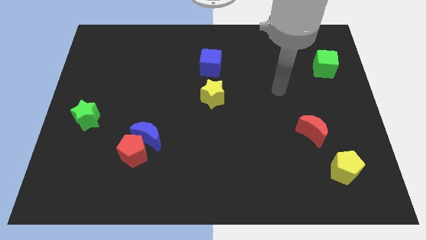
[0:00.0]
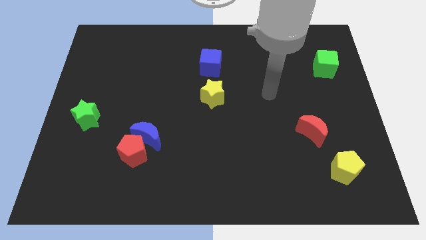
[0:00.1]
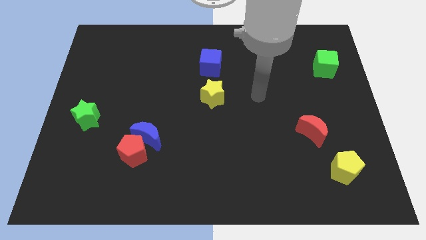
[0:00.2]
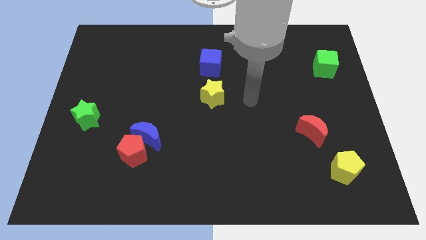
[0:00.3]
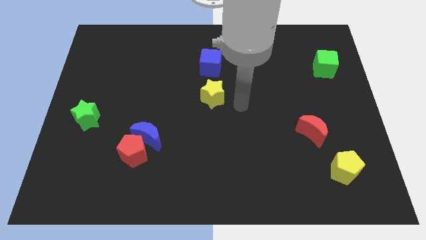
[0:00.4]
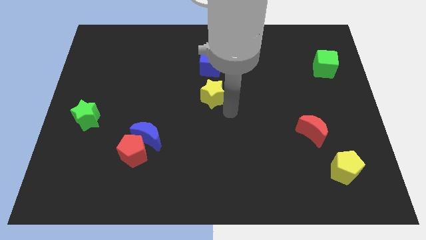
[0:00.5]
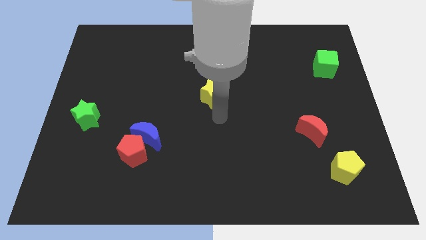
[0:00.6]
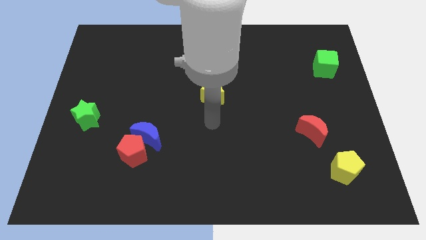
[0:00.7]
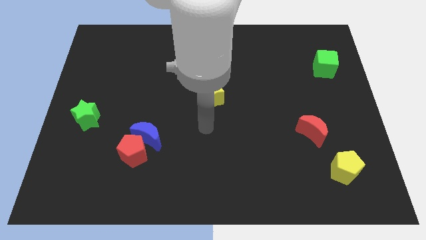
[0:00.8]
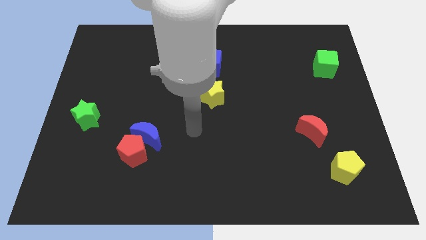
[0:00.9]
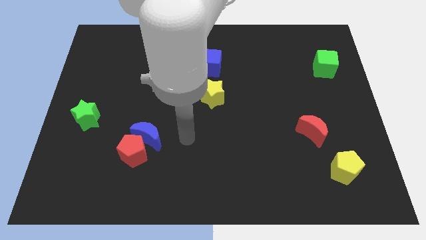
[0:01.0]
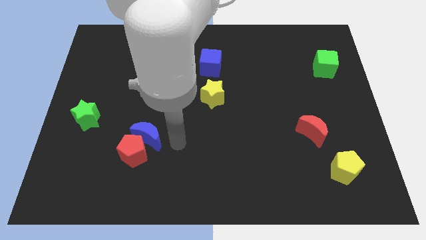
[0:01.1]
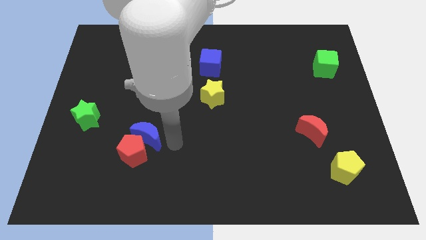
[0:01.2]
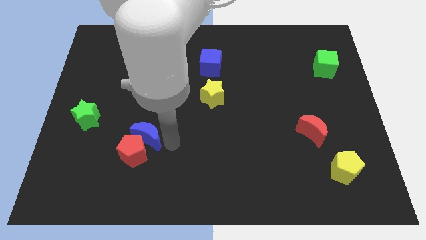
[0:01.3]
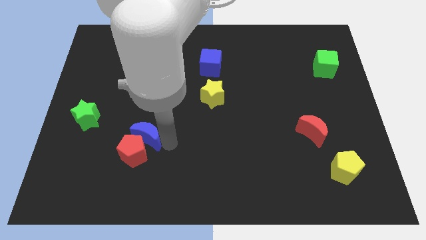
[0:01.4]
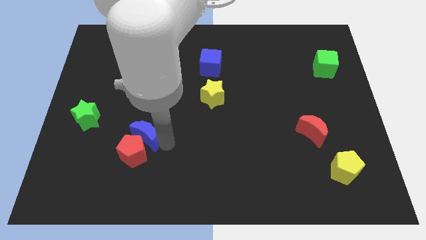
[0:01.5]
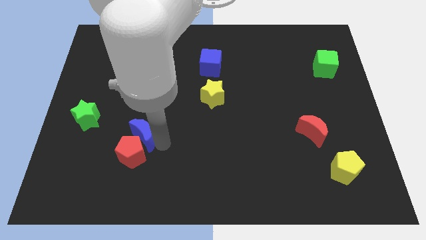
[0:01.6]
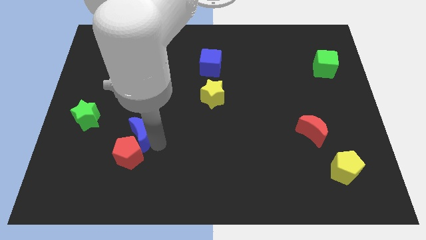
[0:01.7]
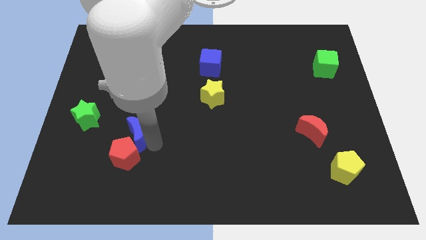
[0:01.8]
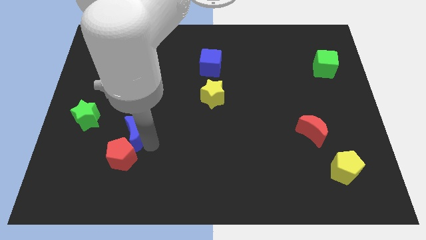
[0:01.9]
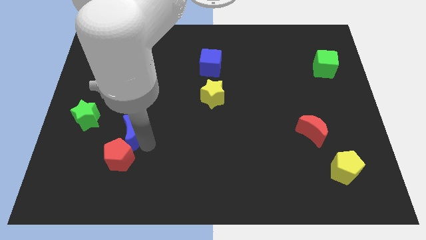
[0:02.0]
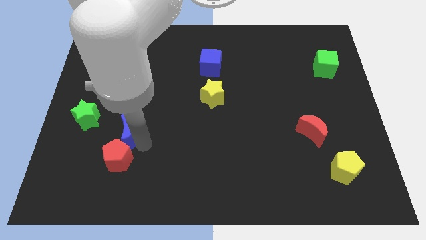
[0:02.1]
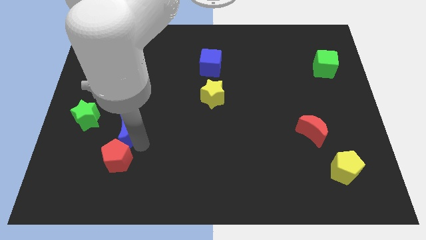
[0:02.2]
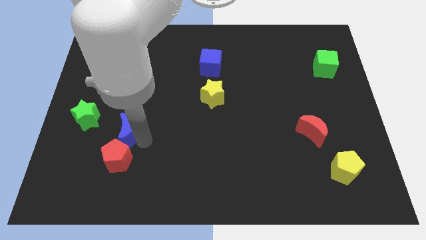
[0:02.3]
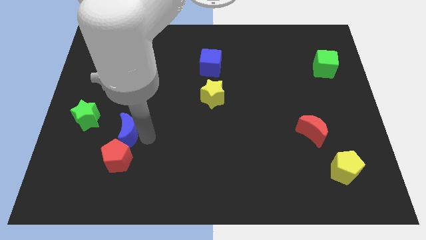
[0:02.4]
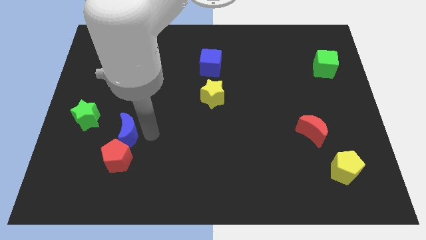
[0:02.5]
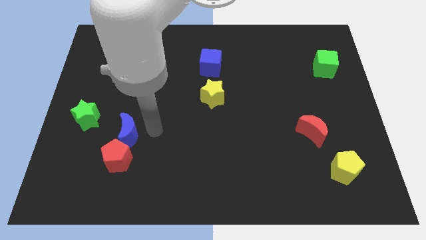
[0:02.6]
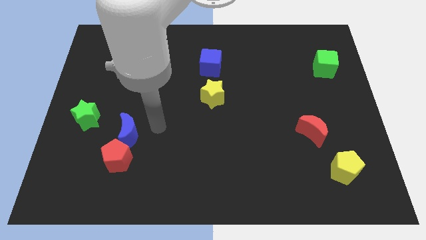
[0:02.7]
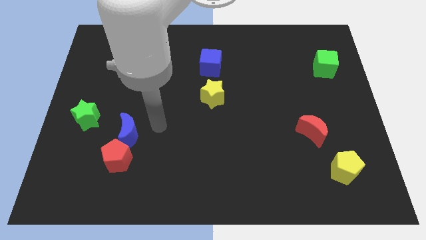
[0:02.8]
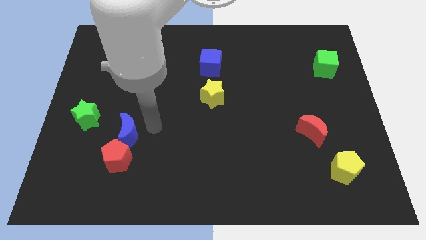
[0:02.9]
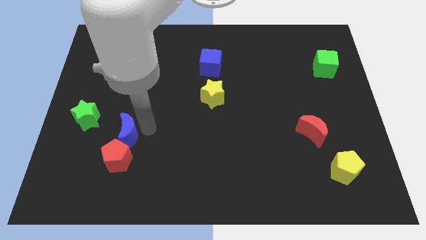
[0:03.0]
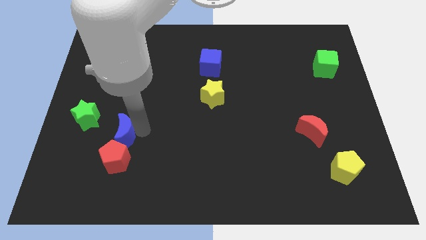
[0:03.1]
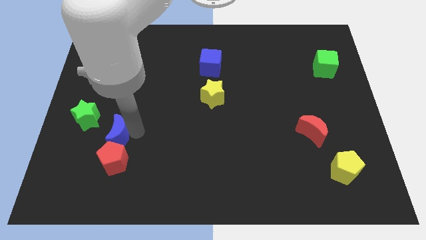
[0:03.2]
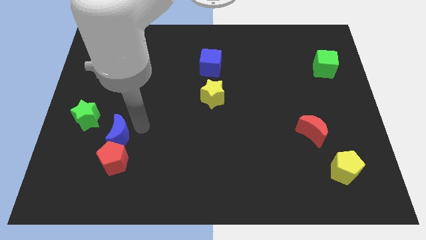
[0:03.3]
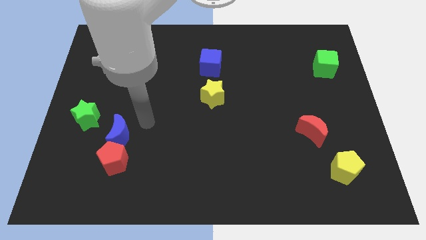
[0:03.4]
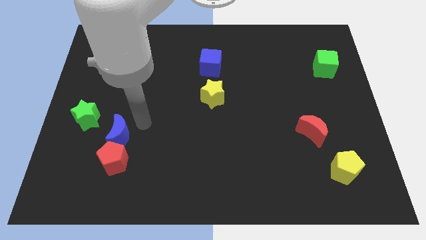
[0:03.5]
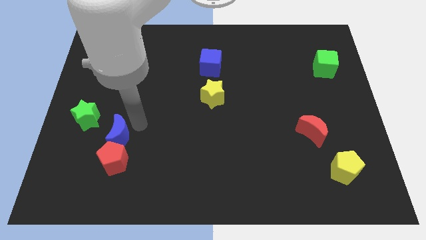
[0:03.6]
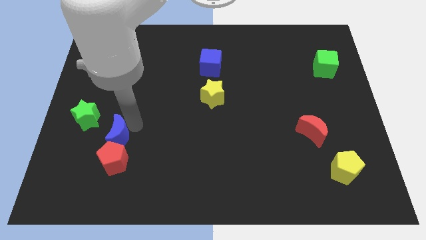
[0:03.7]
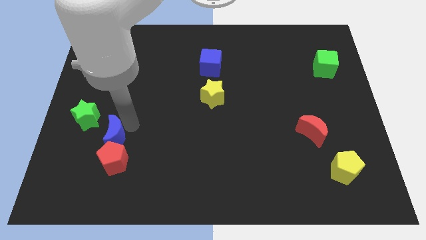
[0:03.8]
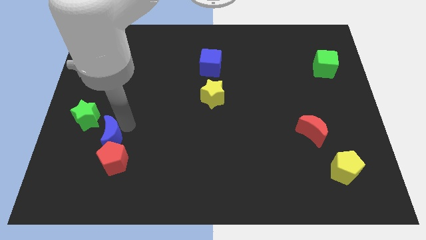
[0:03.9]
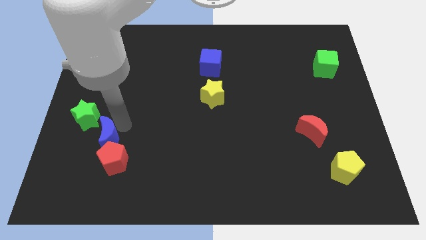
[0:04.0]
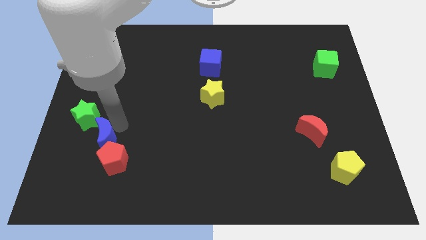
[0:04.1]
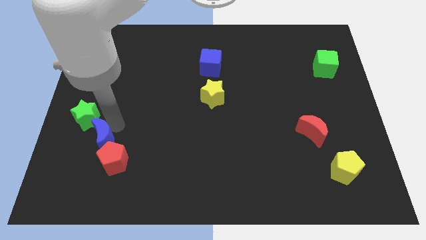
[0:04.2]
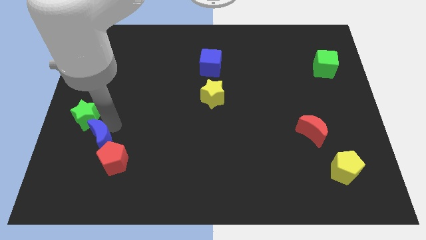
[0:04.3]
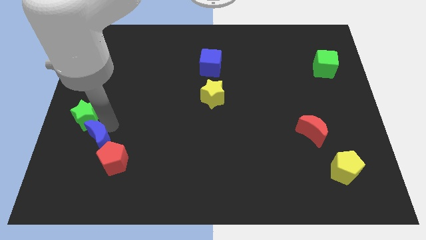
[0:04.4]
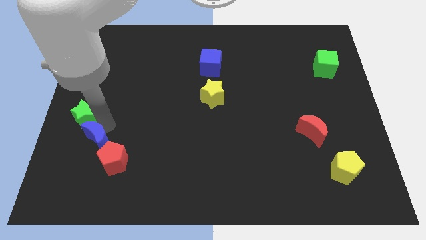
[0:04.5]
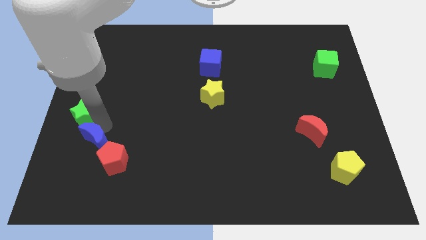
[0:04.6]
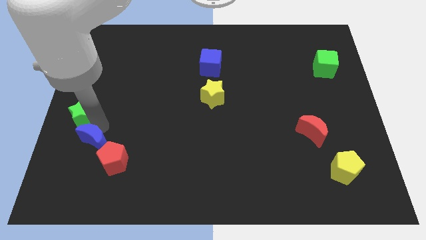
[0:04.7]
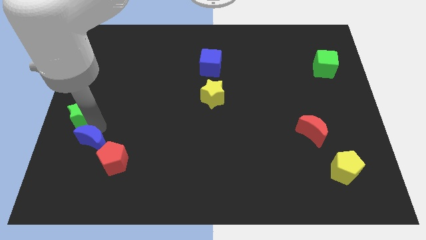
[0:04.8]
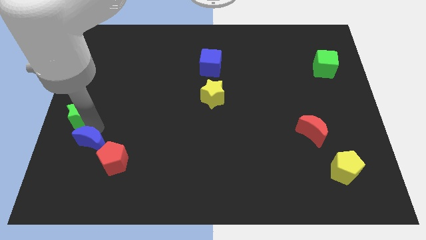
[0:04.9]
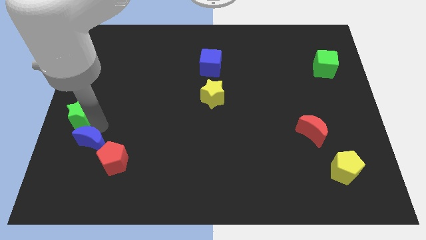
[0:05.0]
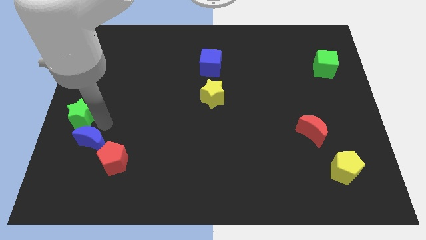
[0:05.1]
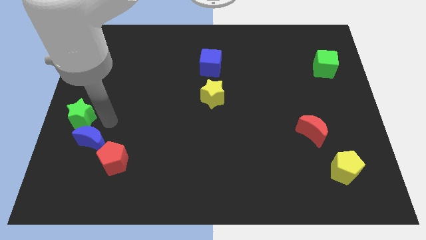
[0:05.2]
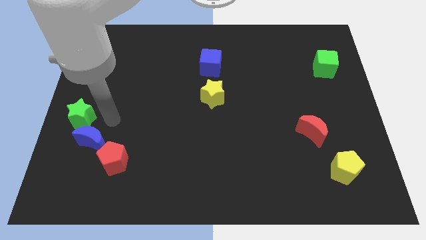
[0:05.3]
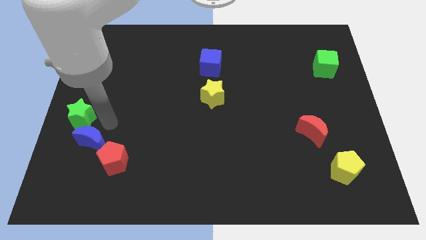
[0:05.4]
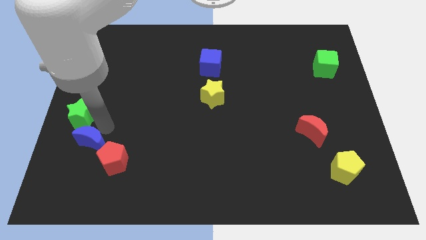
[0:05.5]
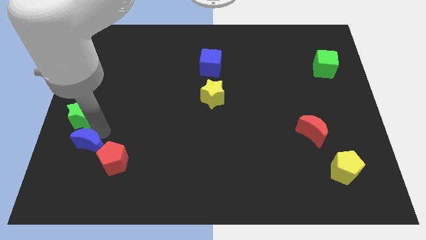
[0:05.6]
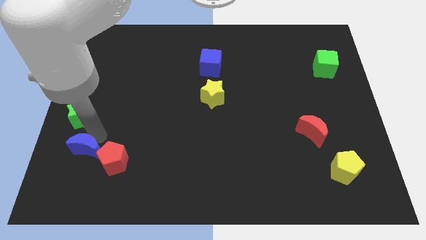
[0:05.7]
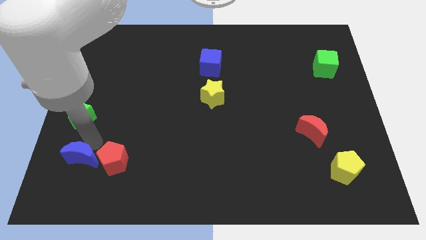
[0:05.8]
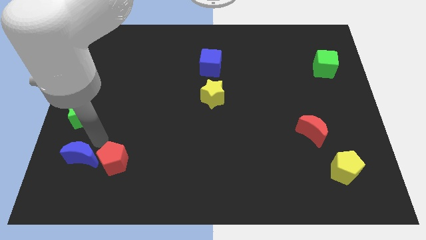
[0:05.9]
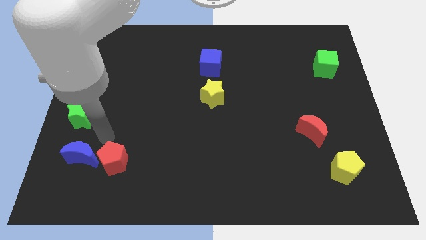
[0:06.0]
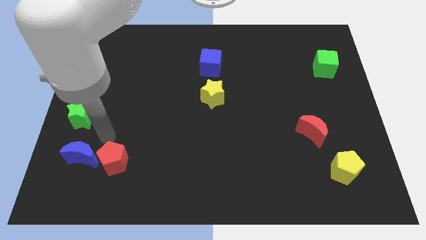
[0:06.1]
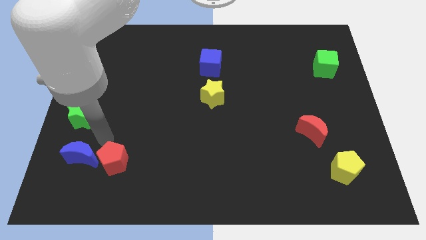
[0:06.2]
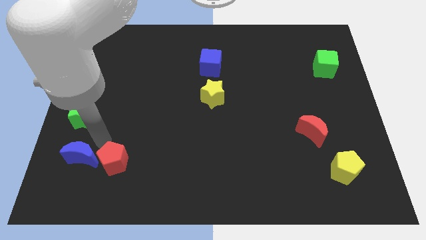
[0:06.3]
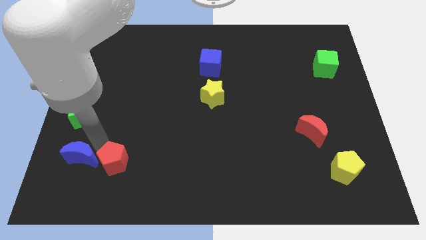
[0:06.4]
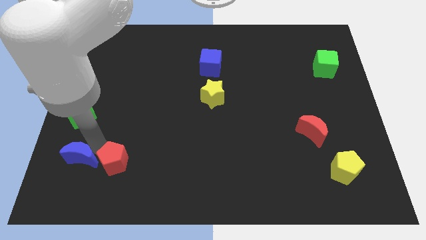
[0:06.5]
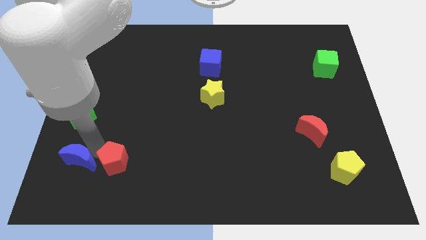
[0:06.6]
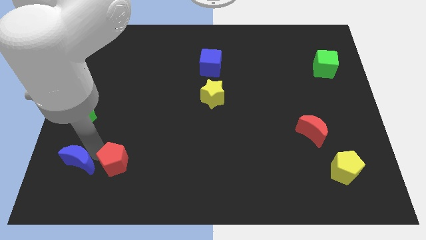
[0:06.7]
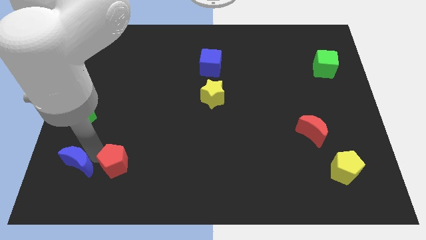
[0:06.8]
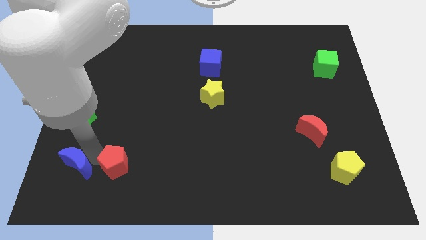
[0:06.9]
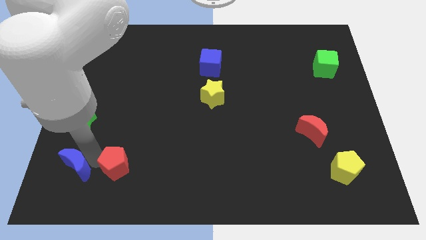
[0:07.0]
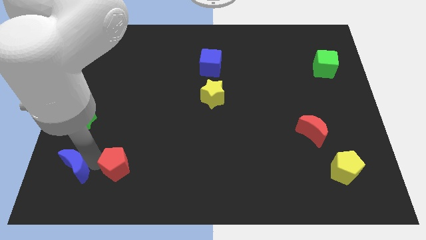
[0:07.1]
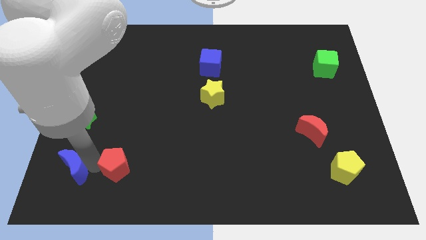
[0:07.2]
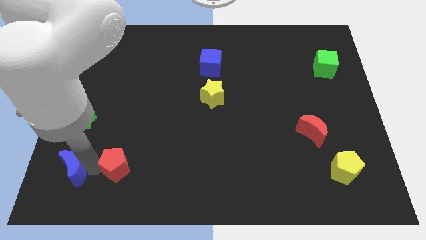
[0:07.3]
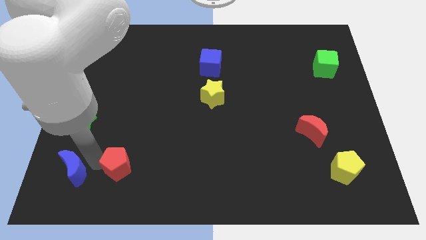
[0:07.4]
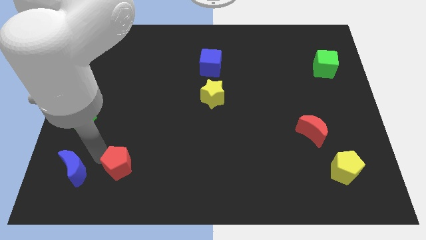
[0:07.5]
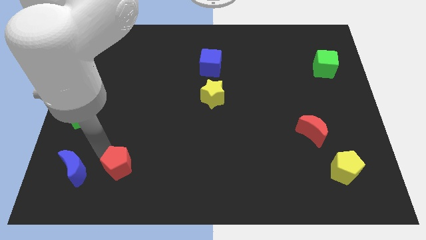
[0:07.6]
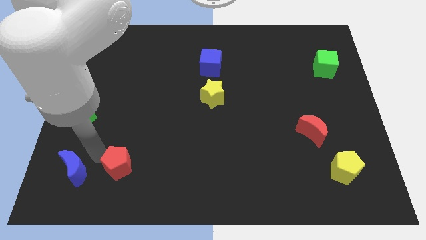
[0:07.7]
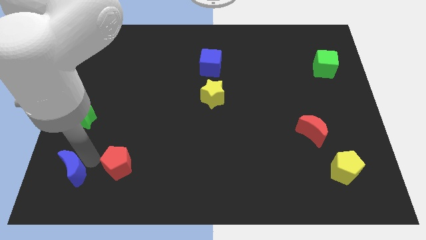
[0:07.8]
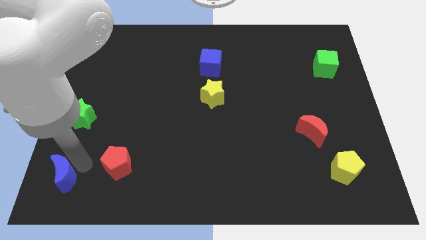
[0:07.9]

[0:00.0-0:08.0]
put the blue moon to the lower left corner
